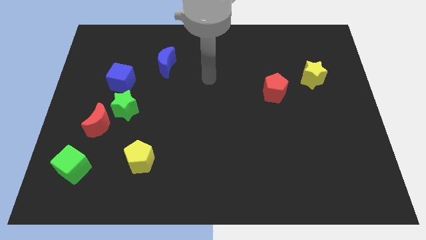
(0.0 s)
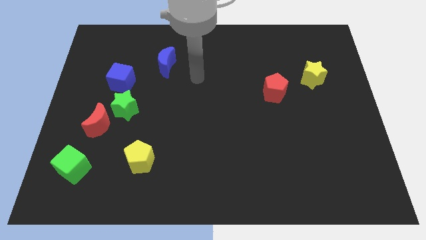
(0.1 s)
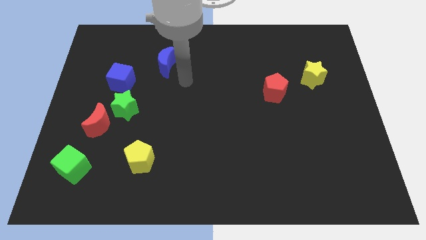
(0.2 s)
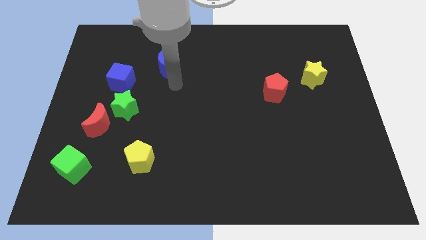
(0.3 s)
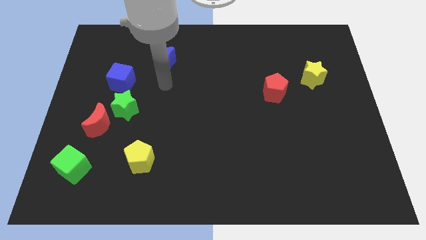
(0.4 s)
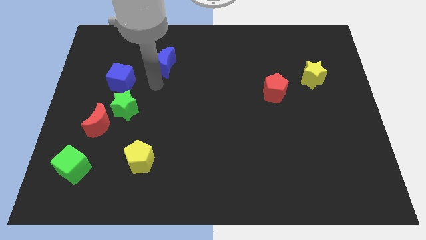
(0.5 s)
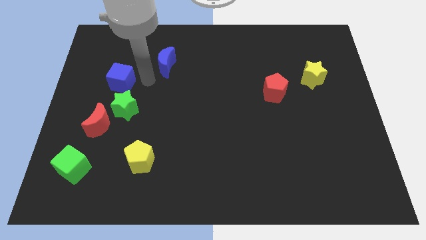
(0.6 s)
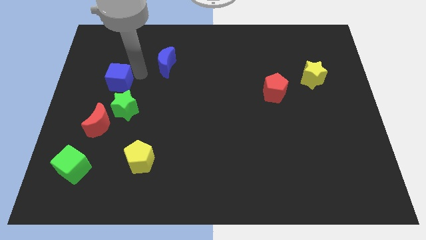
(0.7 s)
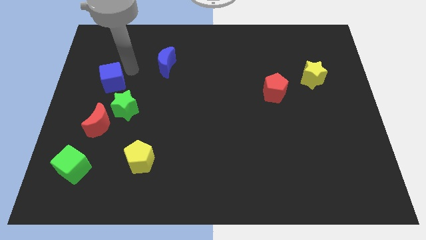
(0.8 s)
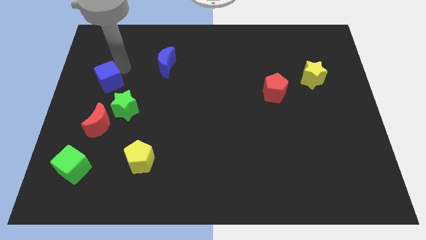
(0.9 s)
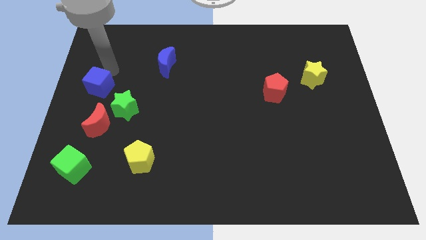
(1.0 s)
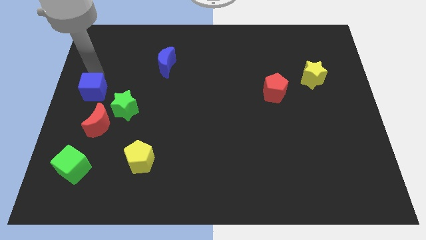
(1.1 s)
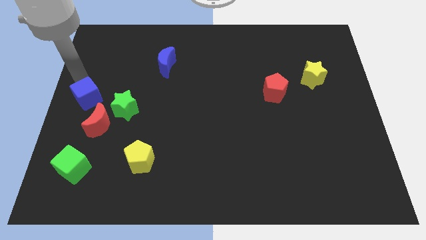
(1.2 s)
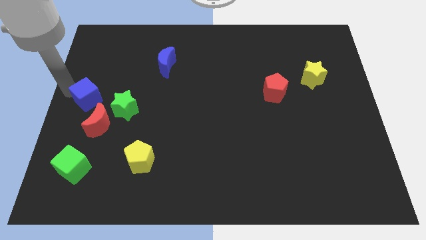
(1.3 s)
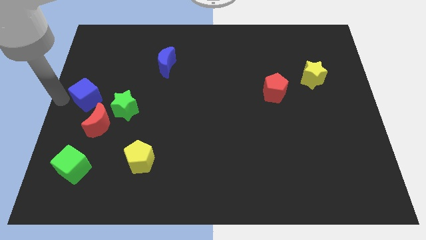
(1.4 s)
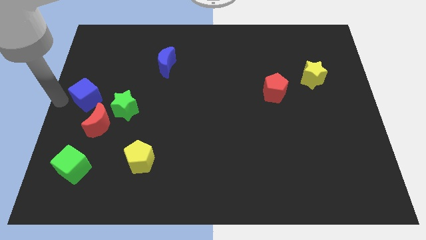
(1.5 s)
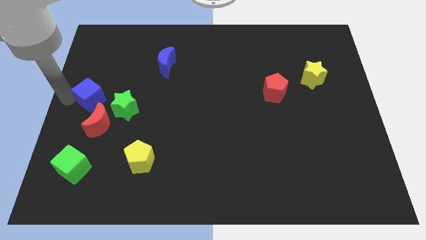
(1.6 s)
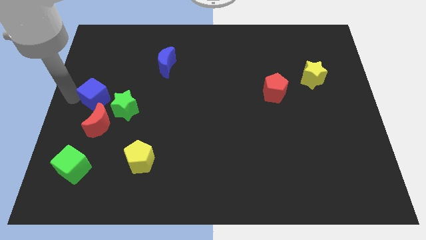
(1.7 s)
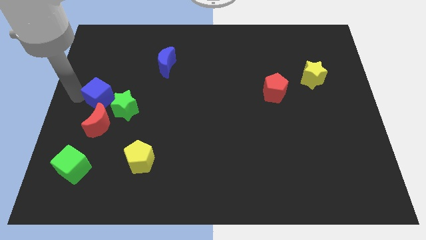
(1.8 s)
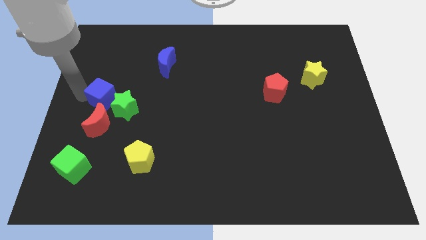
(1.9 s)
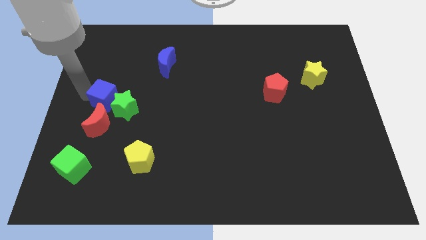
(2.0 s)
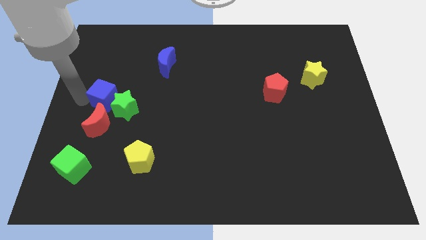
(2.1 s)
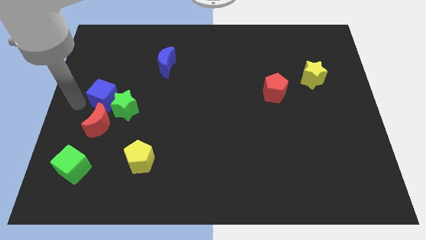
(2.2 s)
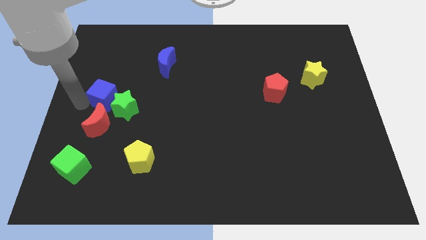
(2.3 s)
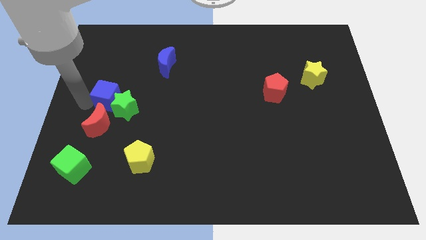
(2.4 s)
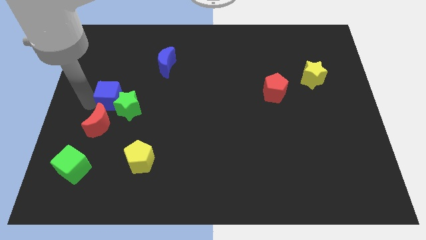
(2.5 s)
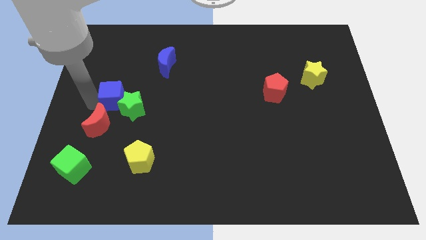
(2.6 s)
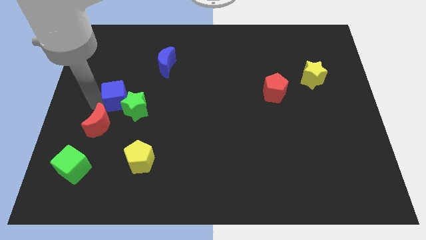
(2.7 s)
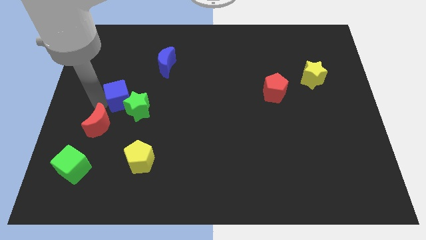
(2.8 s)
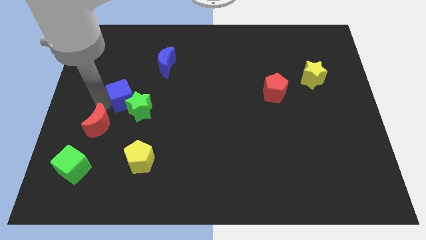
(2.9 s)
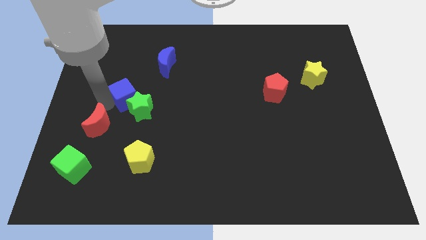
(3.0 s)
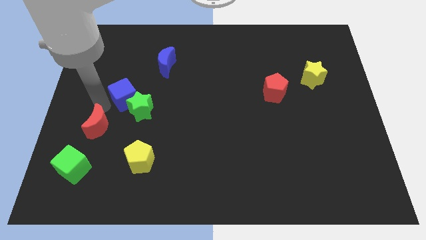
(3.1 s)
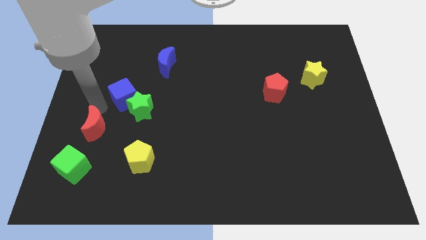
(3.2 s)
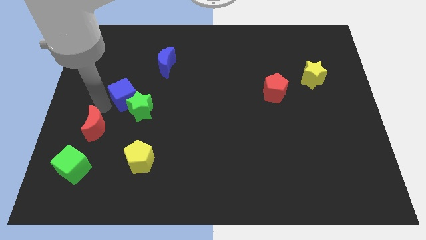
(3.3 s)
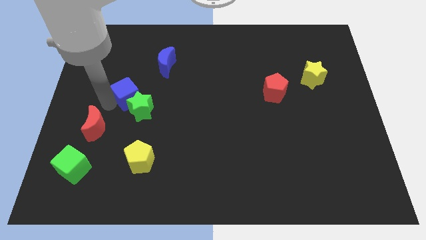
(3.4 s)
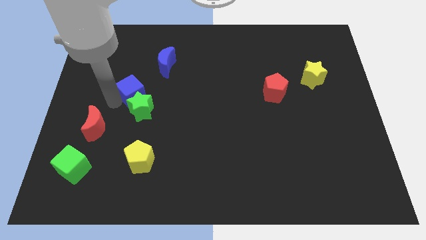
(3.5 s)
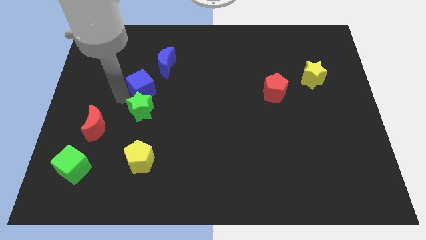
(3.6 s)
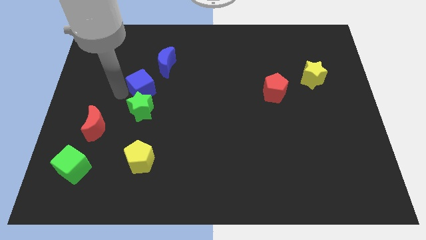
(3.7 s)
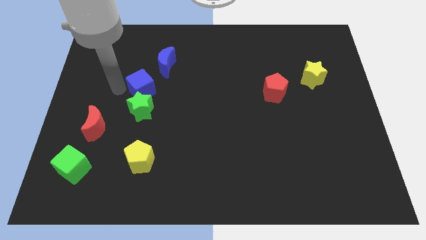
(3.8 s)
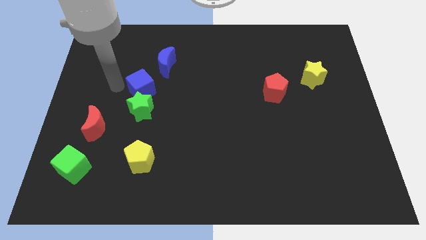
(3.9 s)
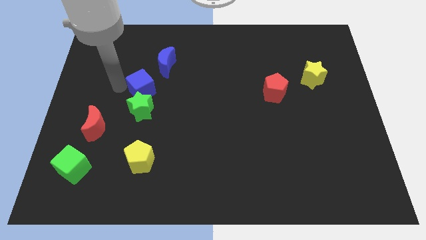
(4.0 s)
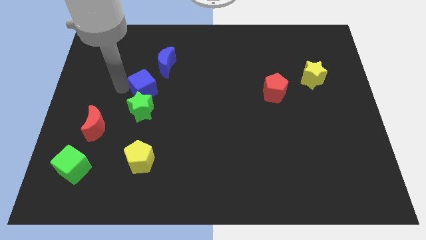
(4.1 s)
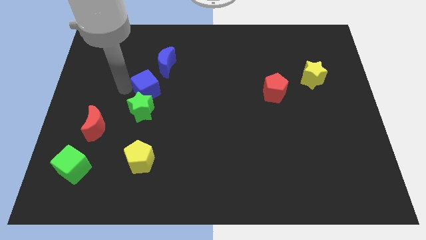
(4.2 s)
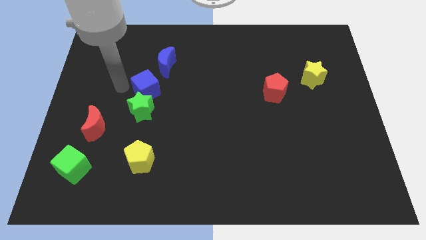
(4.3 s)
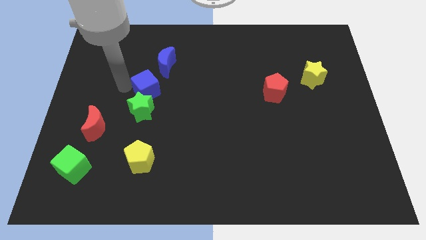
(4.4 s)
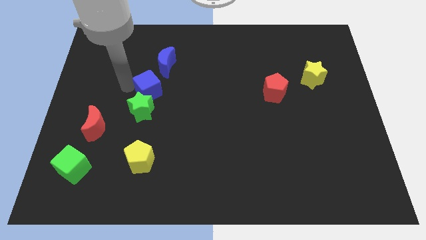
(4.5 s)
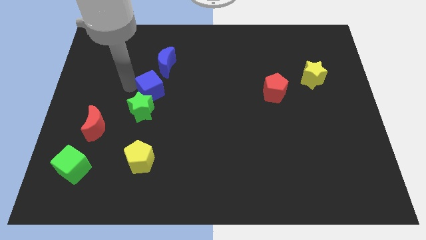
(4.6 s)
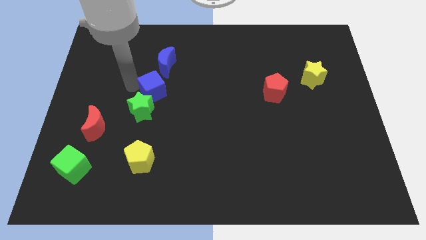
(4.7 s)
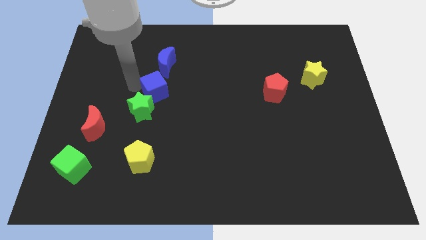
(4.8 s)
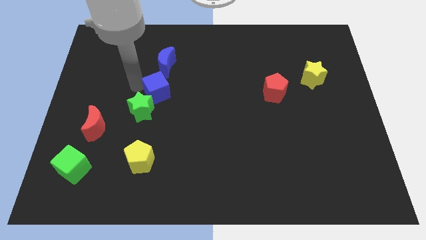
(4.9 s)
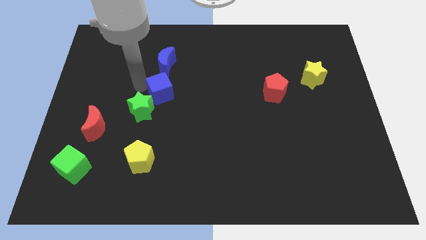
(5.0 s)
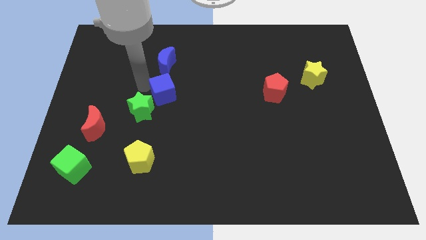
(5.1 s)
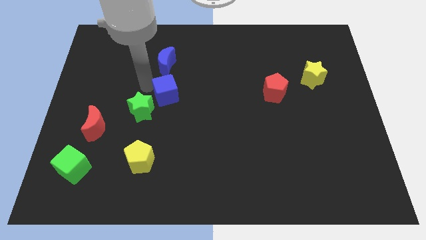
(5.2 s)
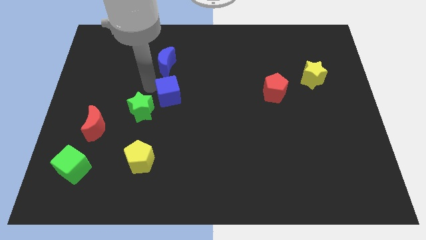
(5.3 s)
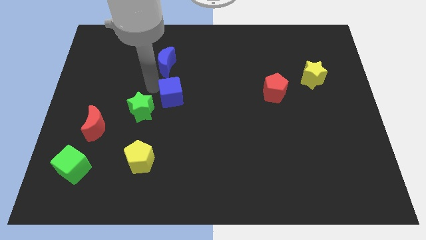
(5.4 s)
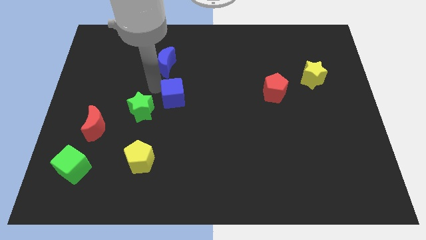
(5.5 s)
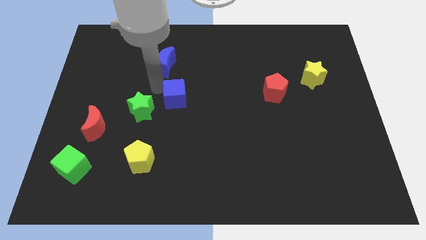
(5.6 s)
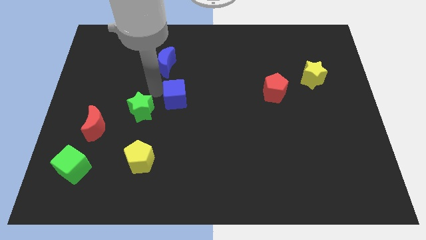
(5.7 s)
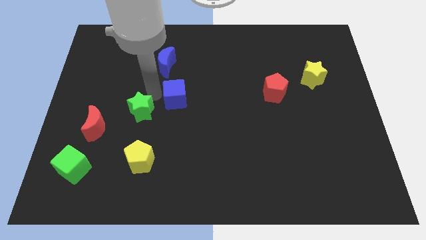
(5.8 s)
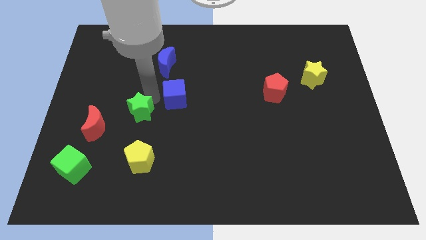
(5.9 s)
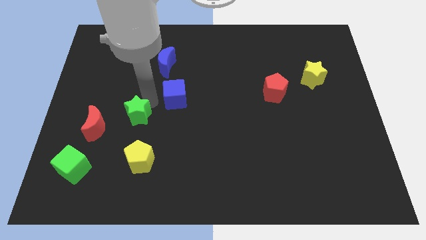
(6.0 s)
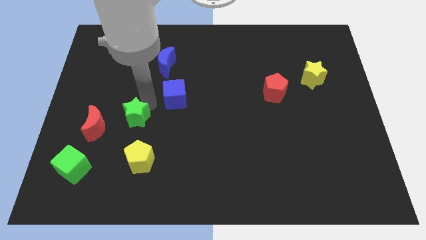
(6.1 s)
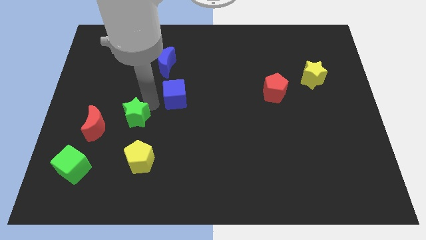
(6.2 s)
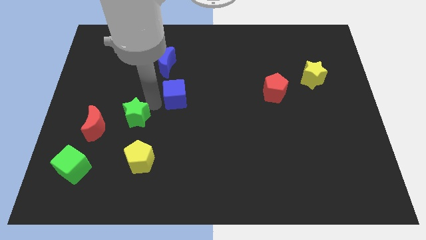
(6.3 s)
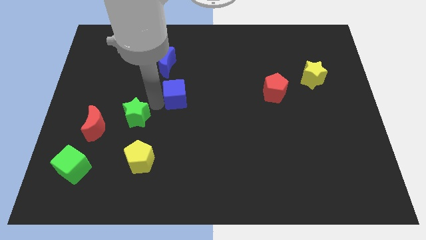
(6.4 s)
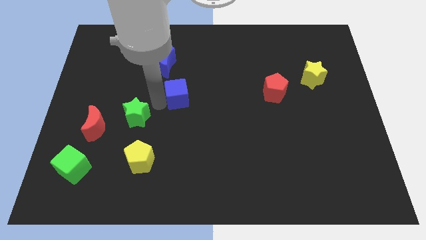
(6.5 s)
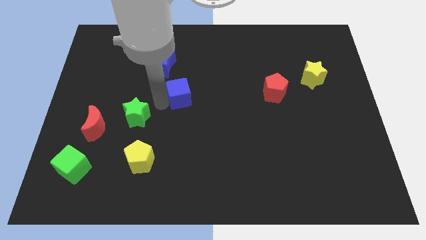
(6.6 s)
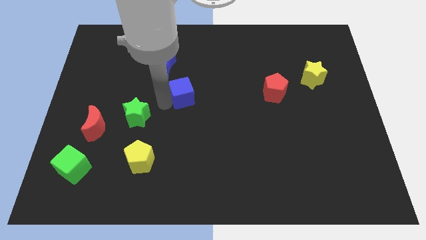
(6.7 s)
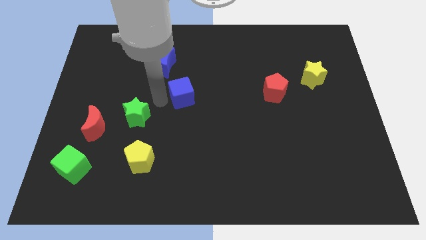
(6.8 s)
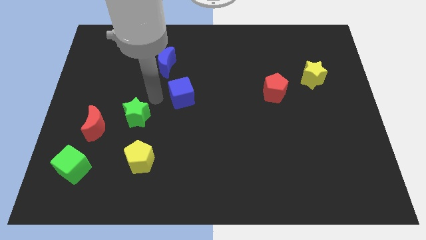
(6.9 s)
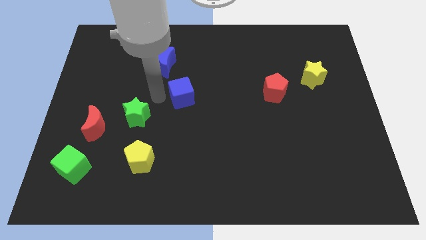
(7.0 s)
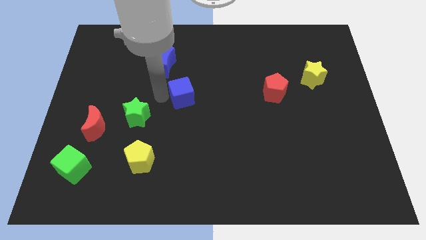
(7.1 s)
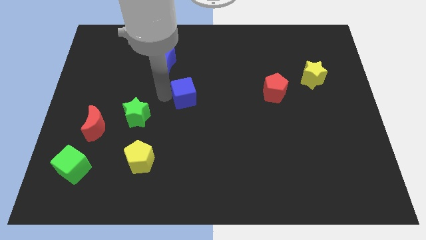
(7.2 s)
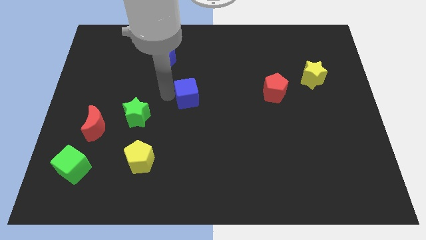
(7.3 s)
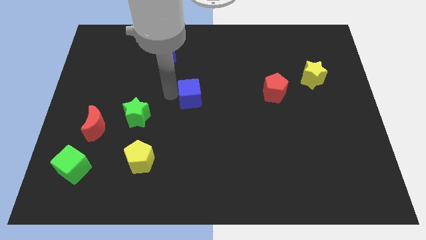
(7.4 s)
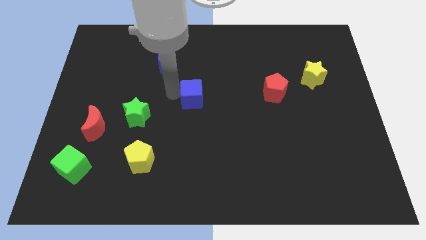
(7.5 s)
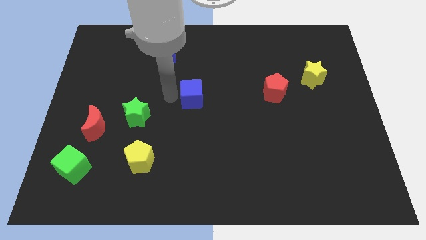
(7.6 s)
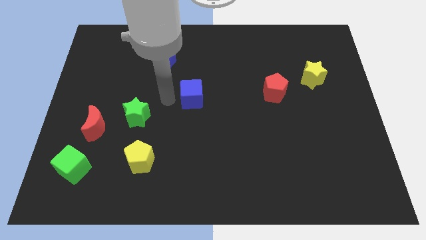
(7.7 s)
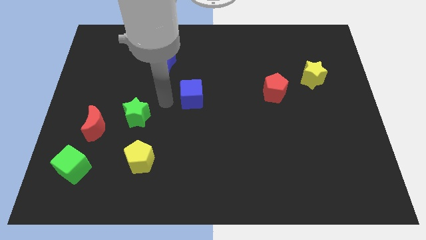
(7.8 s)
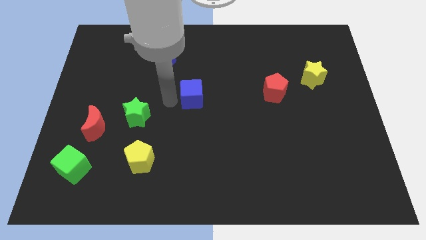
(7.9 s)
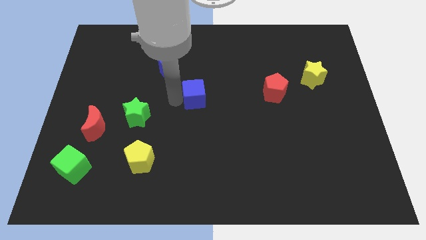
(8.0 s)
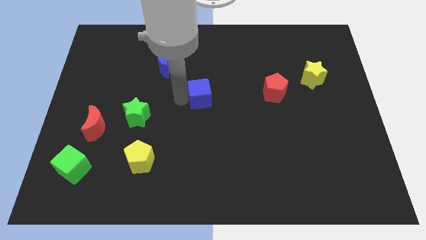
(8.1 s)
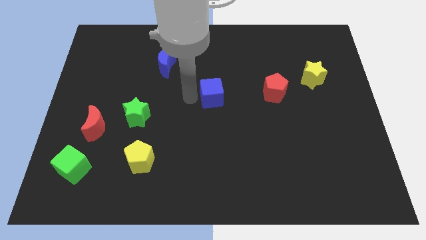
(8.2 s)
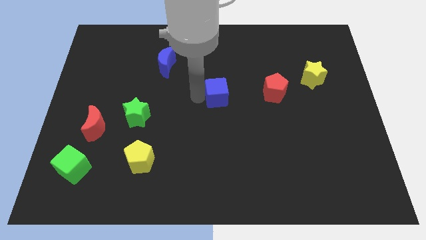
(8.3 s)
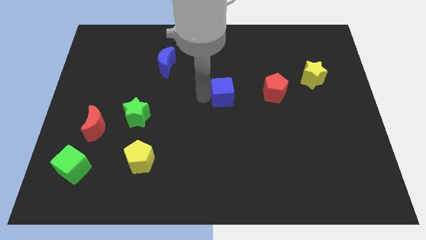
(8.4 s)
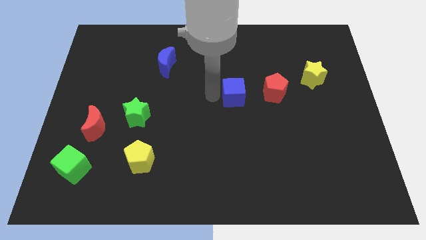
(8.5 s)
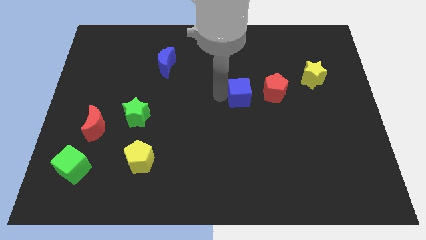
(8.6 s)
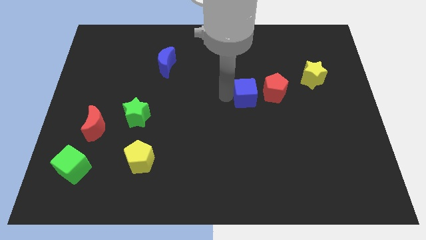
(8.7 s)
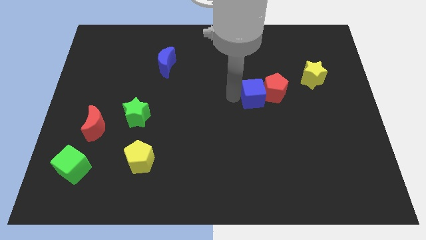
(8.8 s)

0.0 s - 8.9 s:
push the blue cube close to the red pentagon
